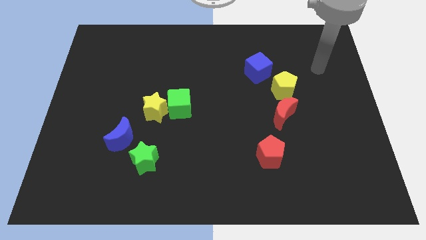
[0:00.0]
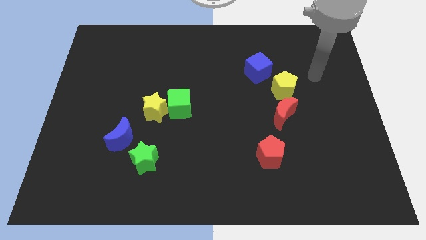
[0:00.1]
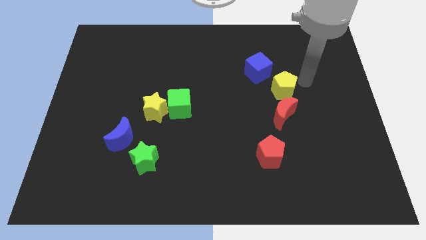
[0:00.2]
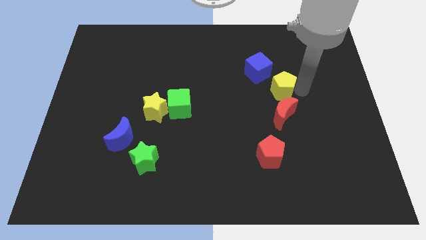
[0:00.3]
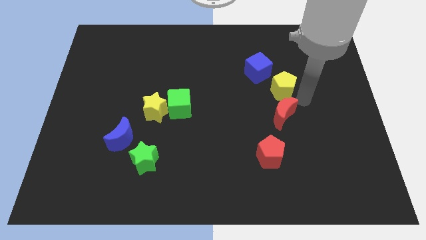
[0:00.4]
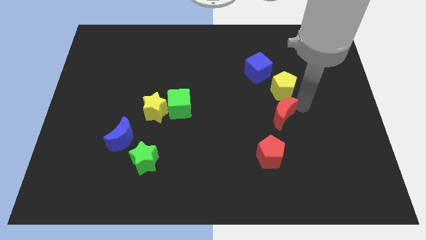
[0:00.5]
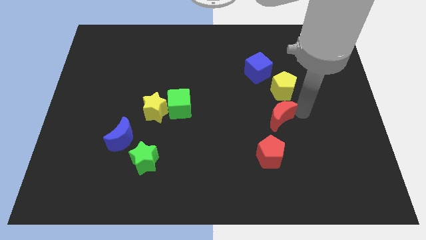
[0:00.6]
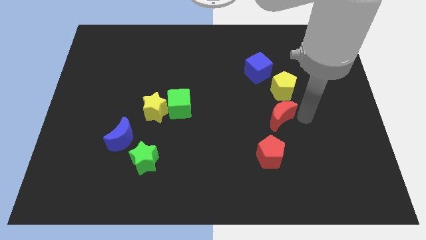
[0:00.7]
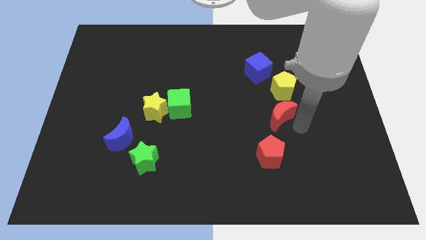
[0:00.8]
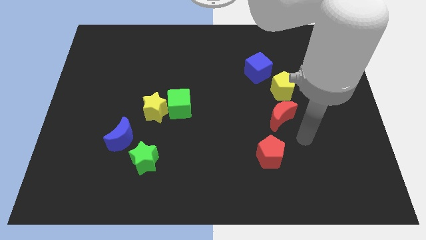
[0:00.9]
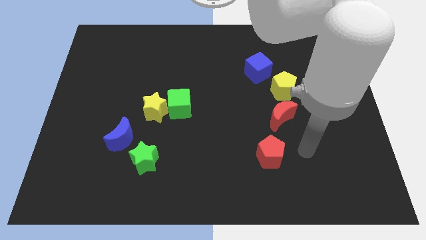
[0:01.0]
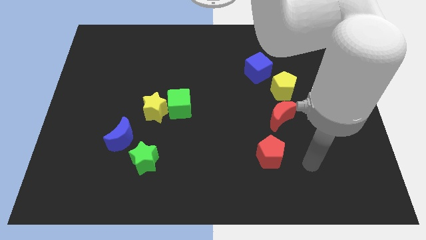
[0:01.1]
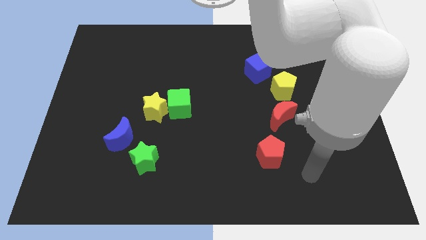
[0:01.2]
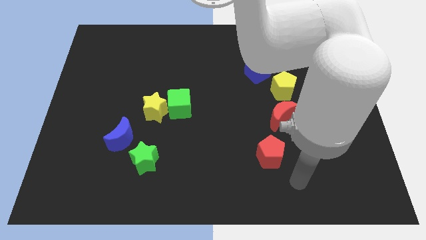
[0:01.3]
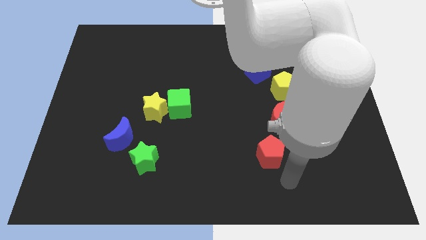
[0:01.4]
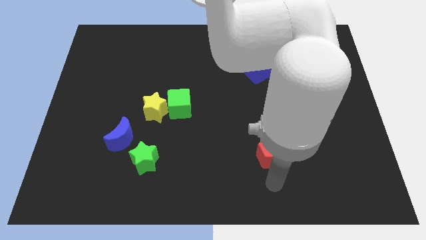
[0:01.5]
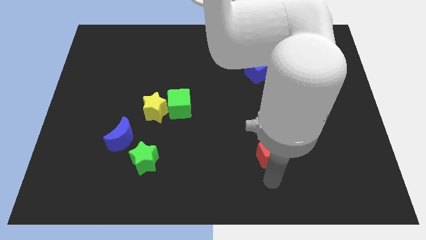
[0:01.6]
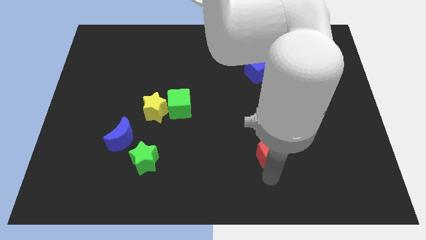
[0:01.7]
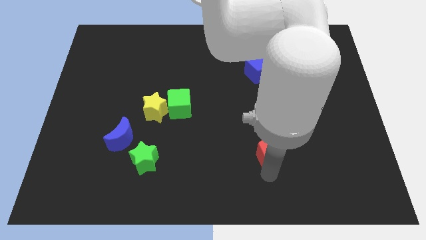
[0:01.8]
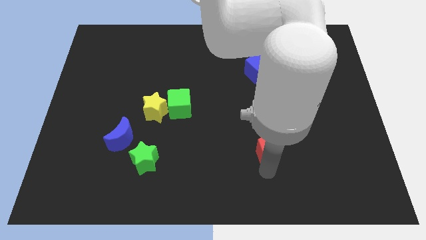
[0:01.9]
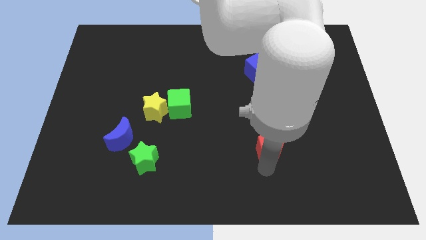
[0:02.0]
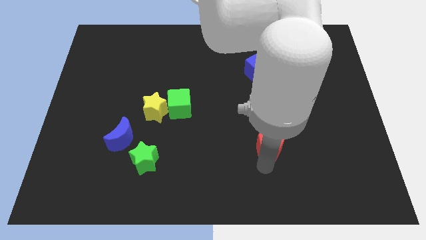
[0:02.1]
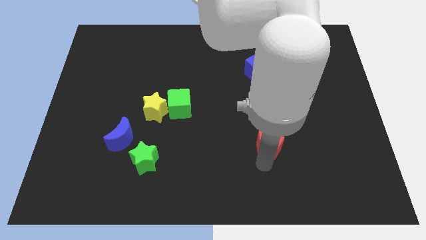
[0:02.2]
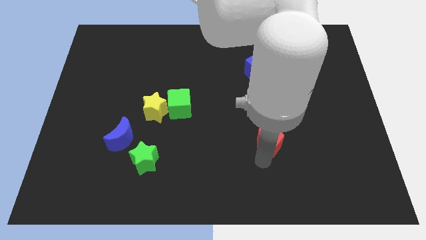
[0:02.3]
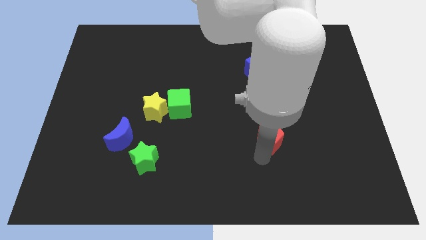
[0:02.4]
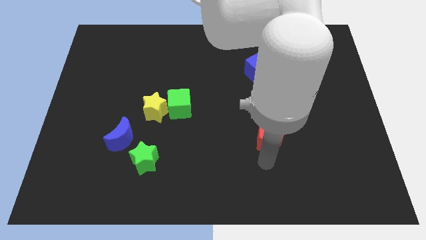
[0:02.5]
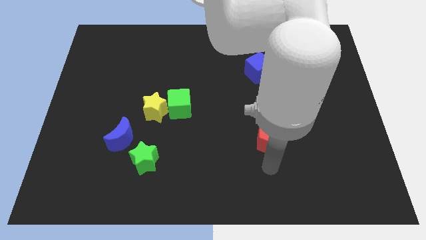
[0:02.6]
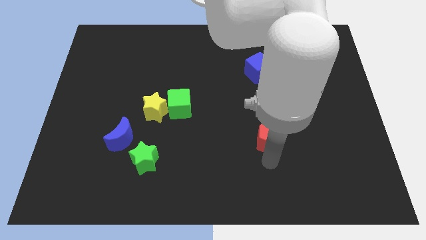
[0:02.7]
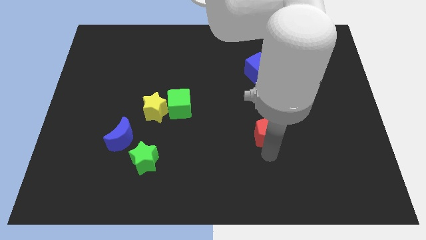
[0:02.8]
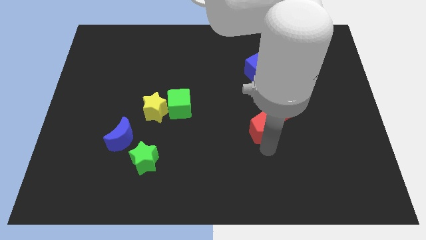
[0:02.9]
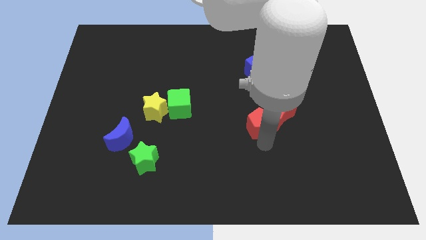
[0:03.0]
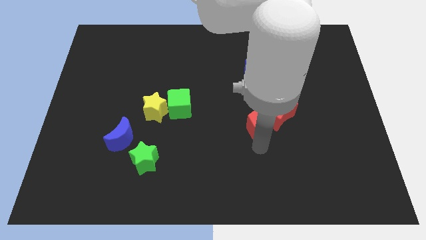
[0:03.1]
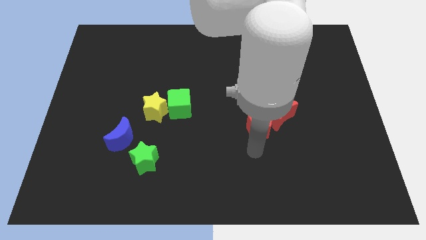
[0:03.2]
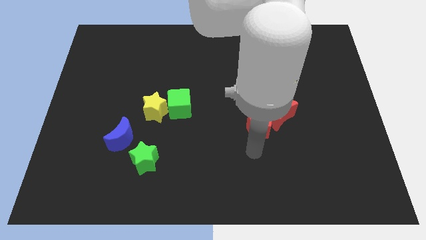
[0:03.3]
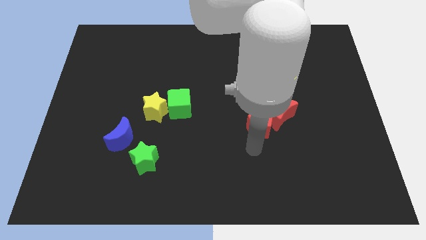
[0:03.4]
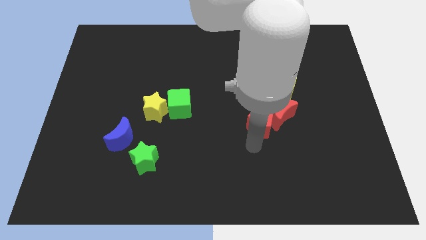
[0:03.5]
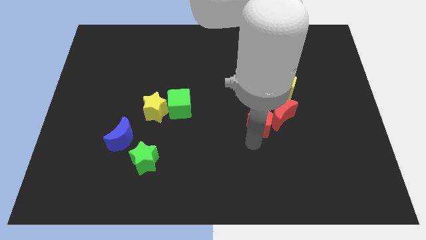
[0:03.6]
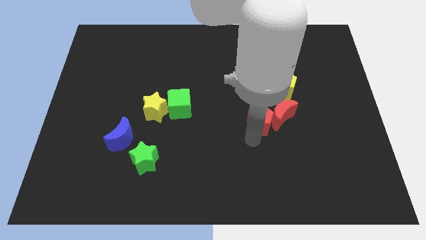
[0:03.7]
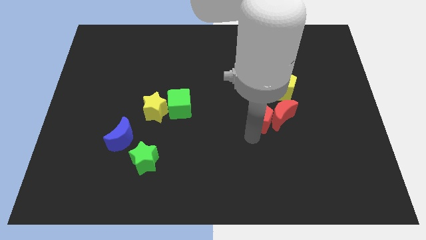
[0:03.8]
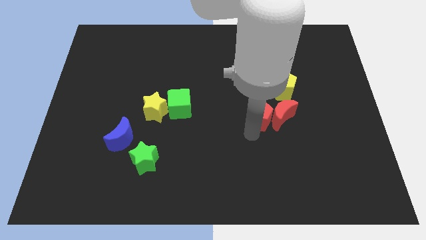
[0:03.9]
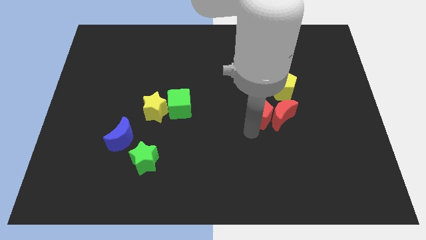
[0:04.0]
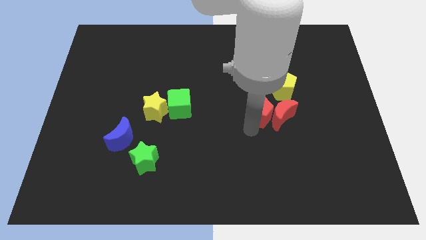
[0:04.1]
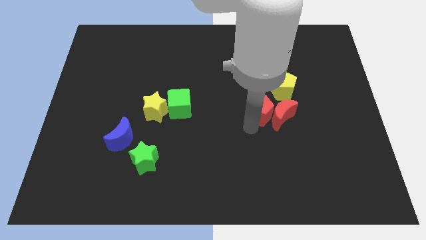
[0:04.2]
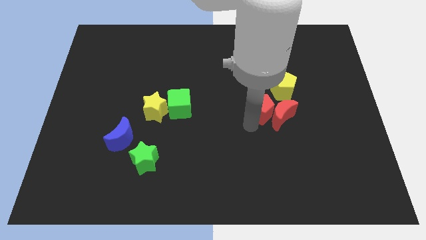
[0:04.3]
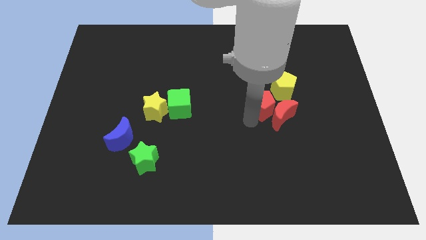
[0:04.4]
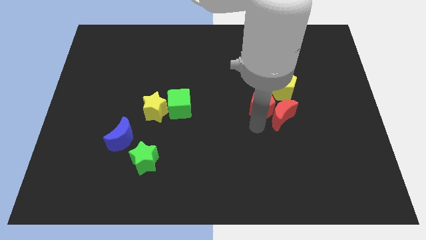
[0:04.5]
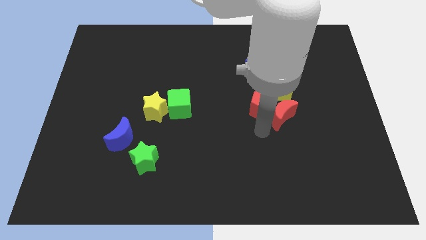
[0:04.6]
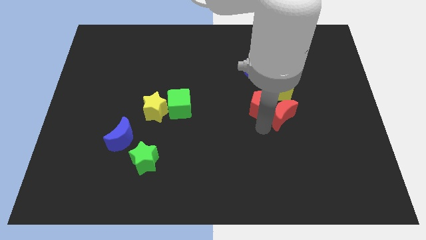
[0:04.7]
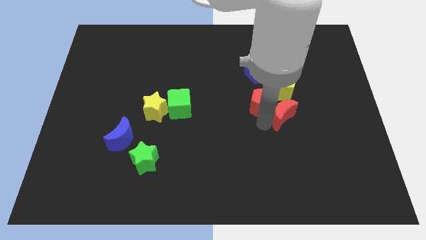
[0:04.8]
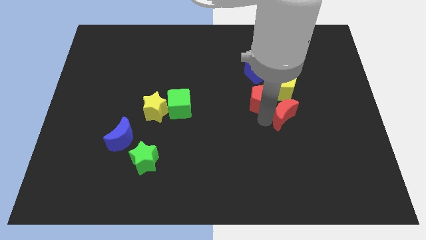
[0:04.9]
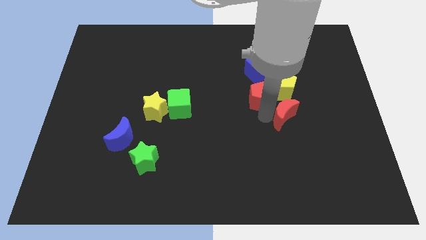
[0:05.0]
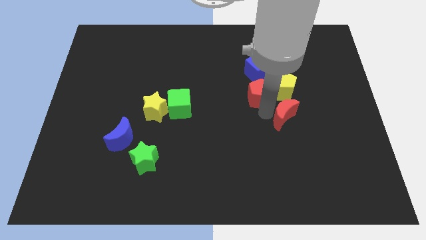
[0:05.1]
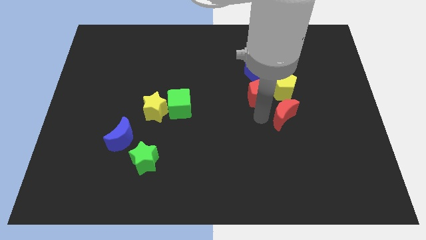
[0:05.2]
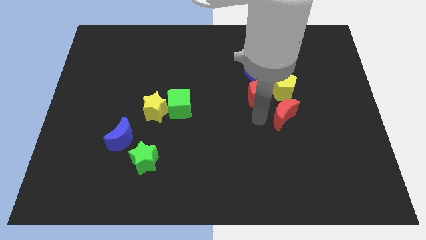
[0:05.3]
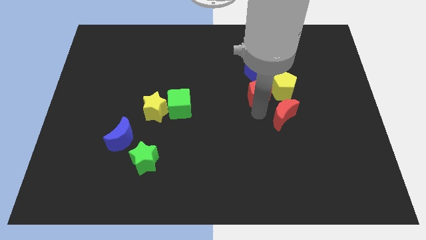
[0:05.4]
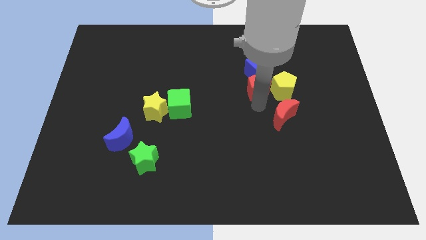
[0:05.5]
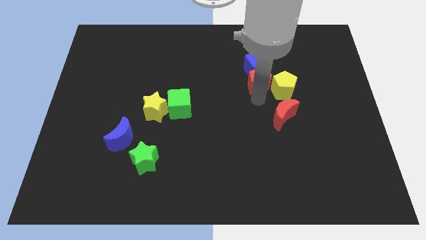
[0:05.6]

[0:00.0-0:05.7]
slide the red pentagon towards the blue cube

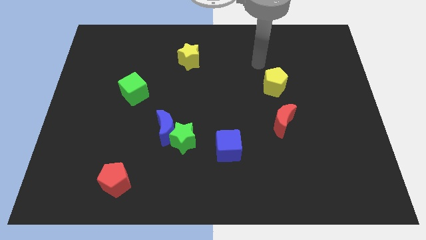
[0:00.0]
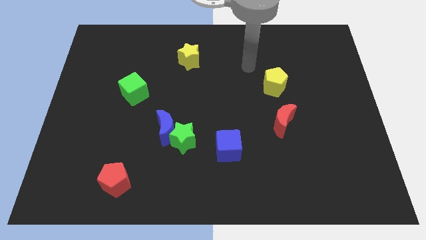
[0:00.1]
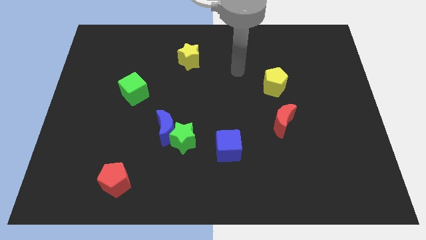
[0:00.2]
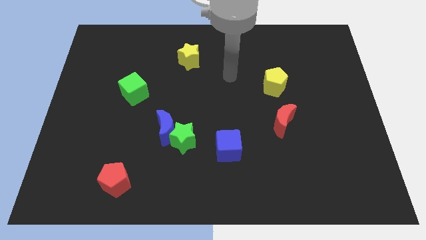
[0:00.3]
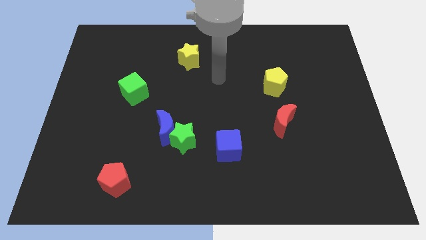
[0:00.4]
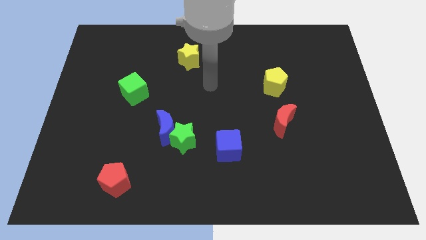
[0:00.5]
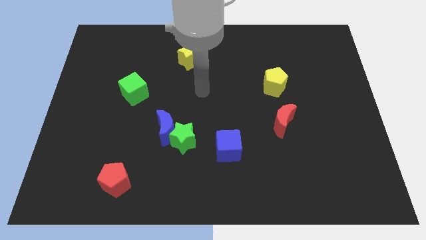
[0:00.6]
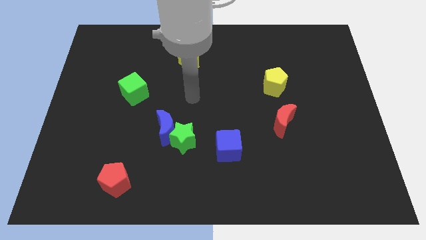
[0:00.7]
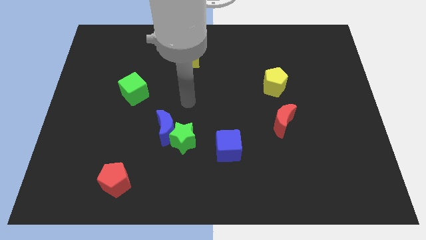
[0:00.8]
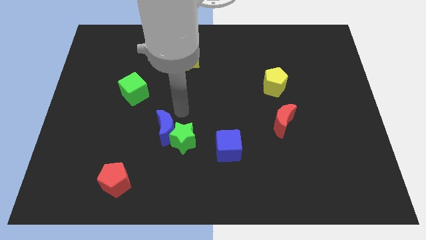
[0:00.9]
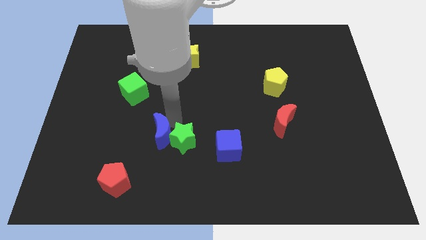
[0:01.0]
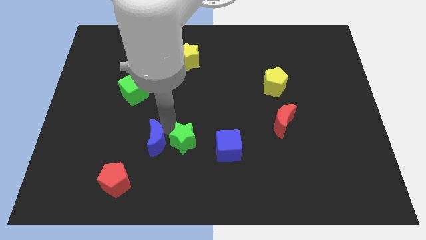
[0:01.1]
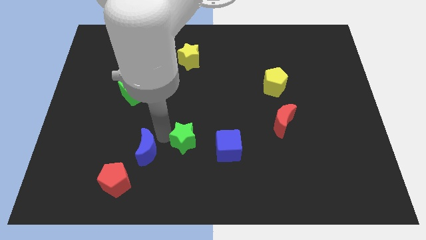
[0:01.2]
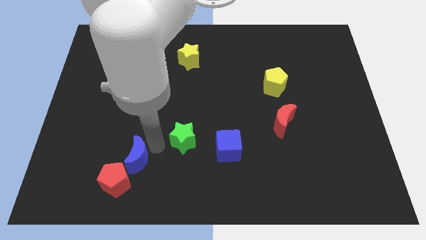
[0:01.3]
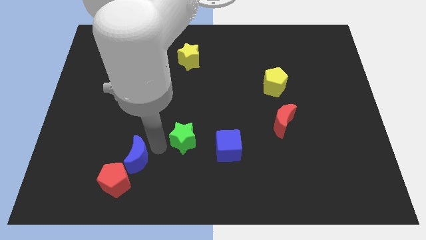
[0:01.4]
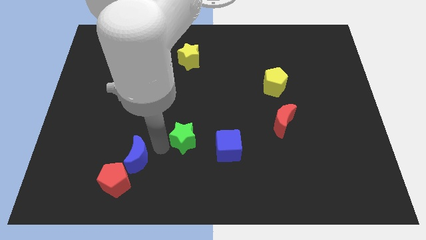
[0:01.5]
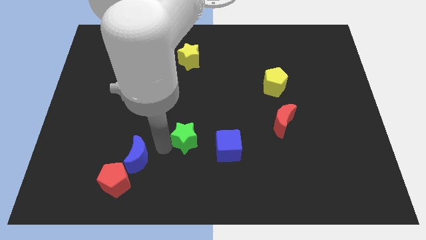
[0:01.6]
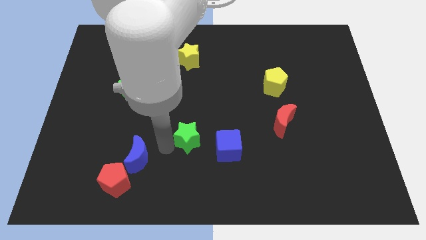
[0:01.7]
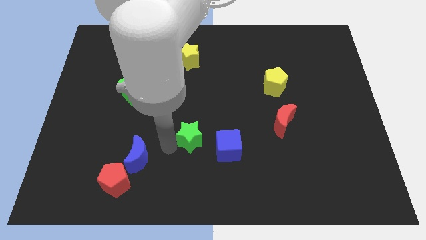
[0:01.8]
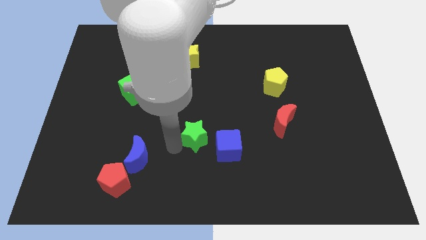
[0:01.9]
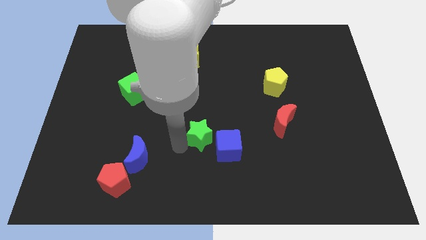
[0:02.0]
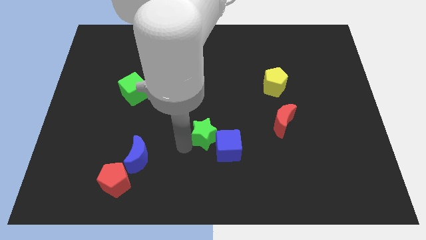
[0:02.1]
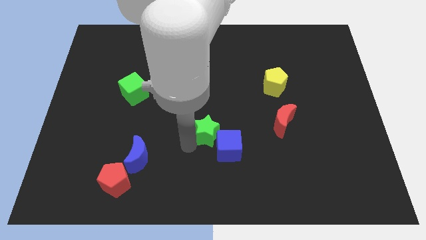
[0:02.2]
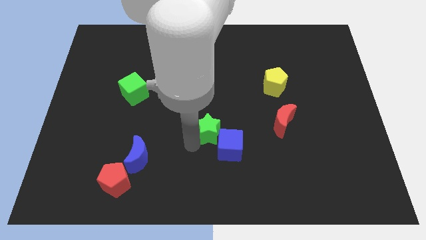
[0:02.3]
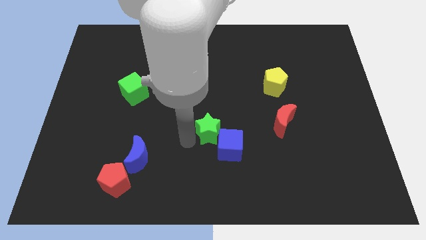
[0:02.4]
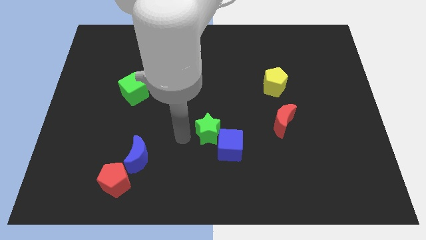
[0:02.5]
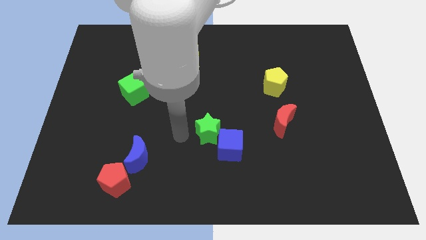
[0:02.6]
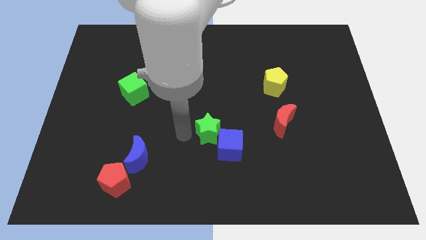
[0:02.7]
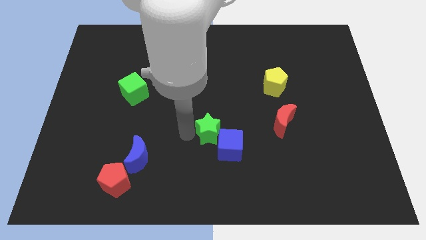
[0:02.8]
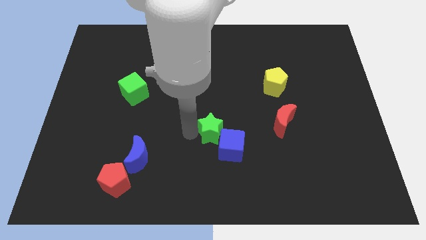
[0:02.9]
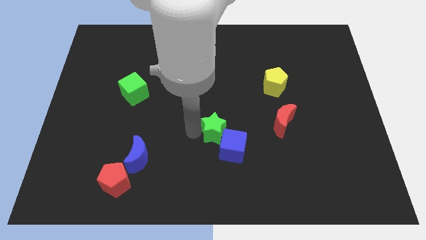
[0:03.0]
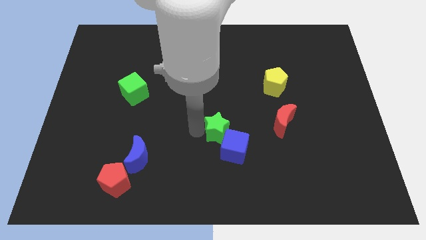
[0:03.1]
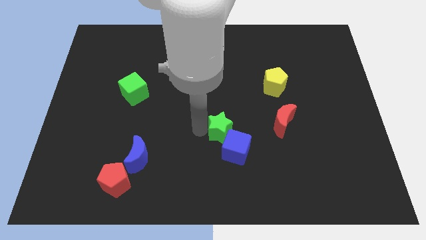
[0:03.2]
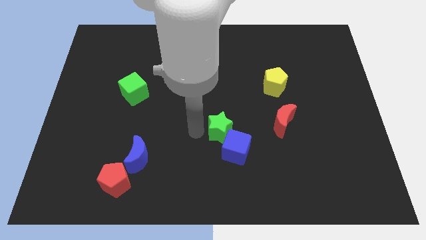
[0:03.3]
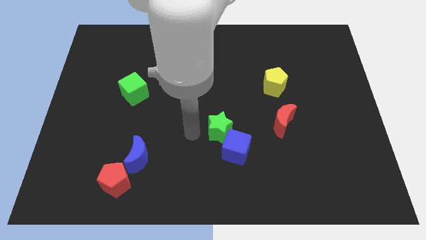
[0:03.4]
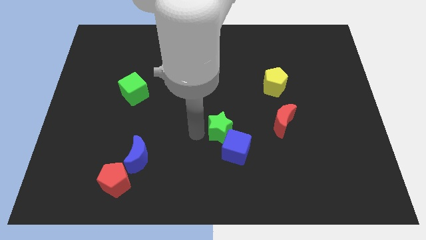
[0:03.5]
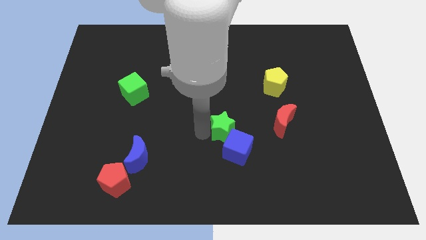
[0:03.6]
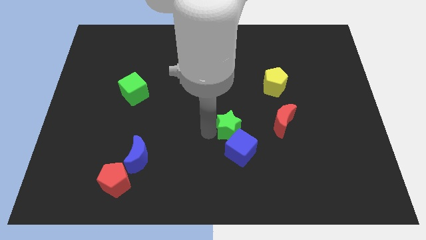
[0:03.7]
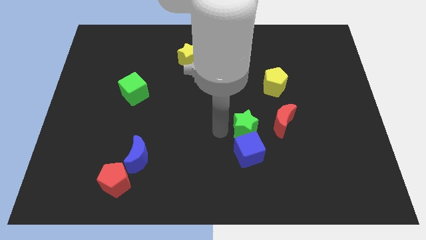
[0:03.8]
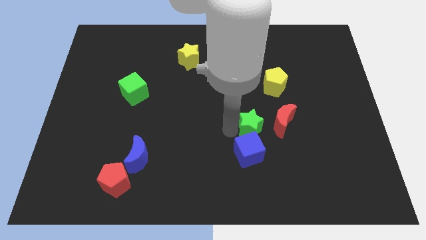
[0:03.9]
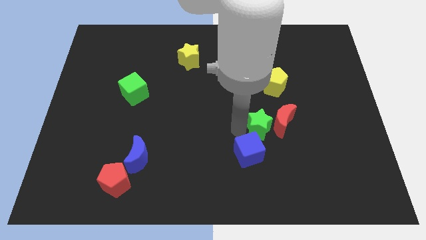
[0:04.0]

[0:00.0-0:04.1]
push the green star towards the red moon
